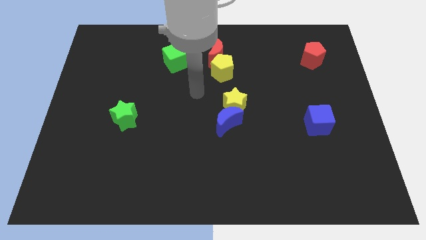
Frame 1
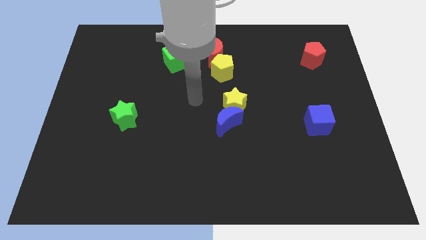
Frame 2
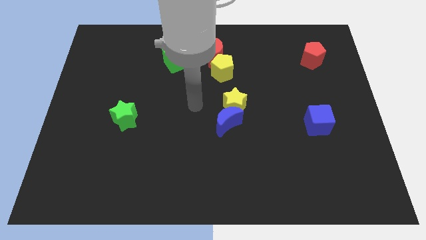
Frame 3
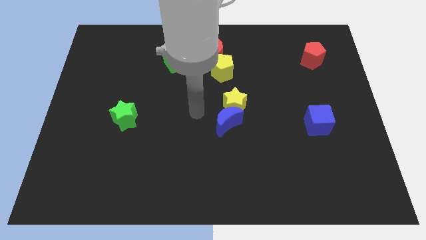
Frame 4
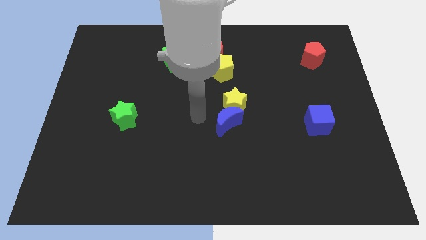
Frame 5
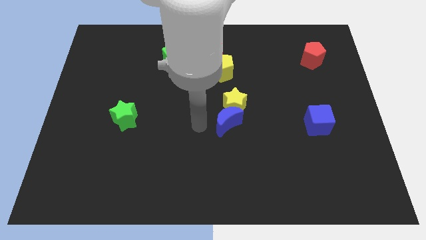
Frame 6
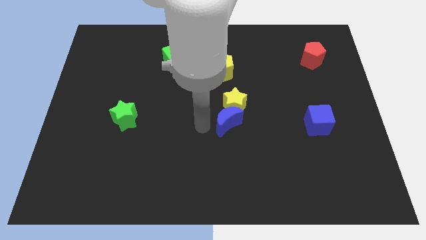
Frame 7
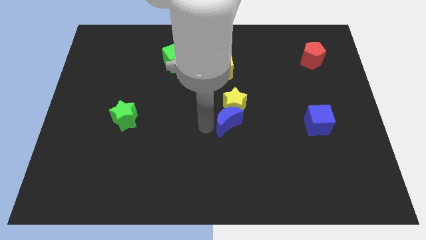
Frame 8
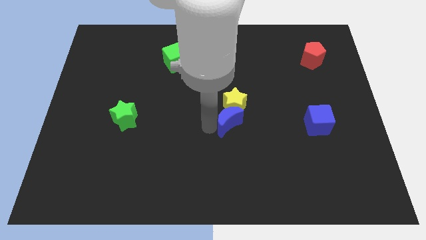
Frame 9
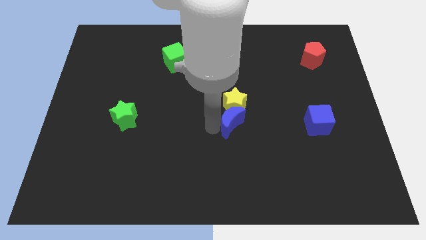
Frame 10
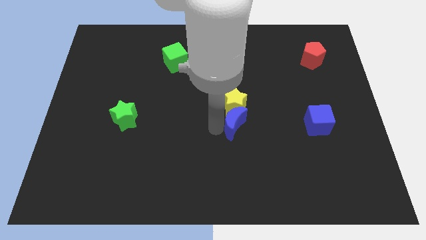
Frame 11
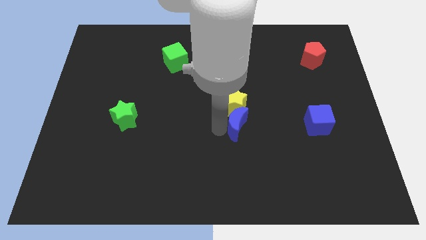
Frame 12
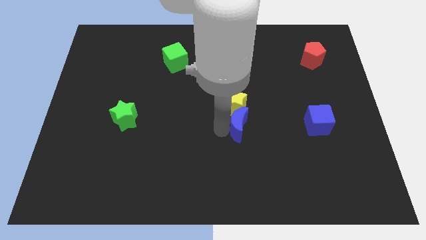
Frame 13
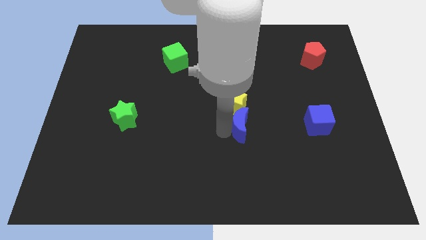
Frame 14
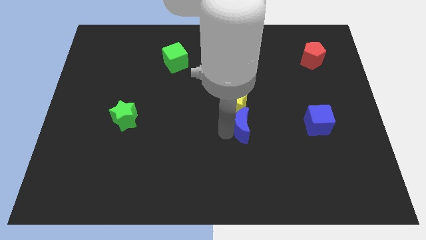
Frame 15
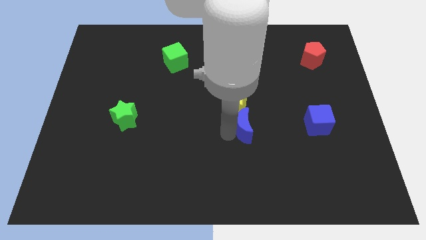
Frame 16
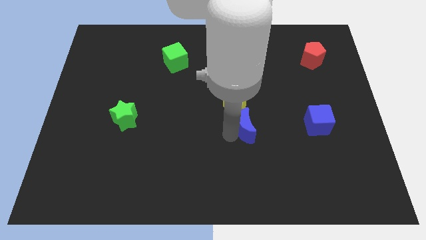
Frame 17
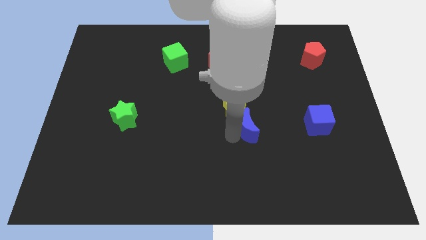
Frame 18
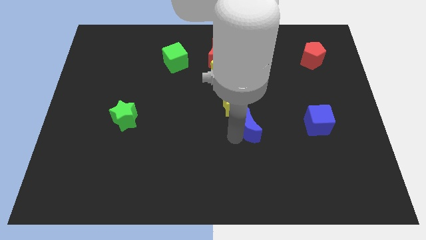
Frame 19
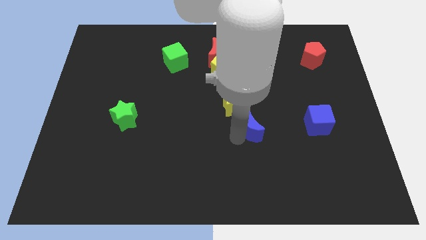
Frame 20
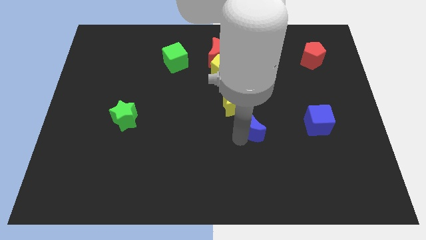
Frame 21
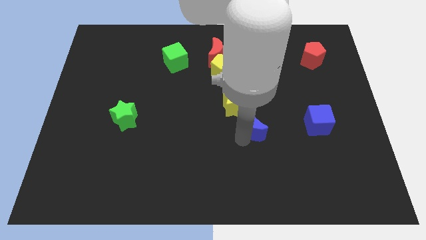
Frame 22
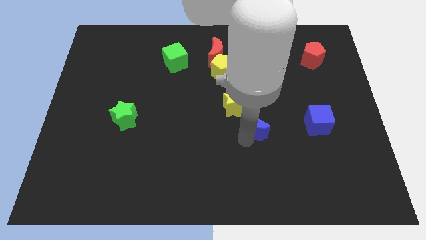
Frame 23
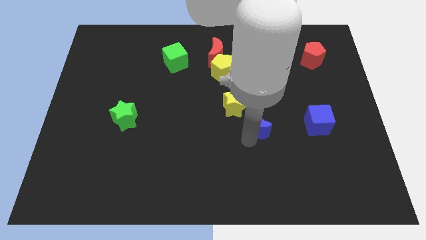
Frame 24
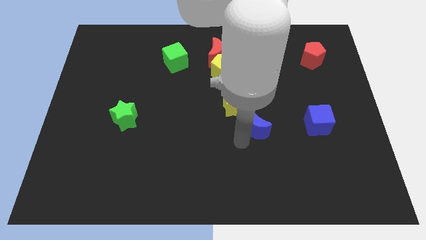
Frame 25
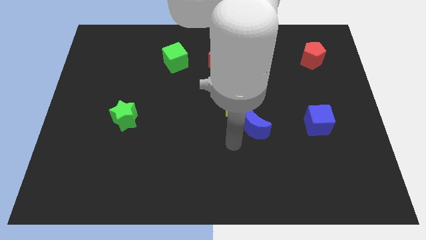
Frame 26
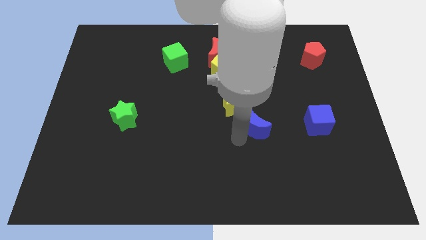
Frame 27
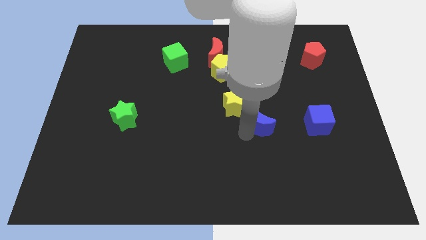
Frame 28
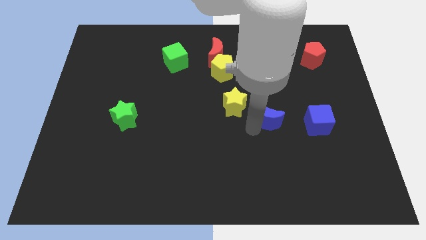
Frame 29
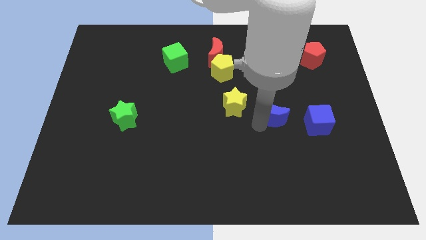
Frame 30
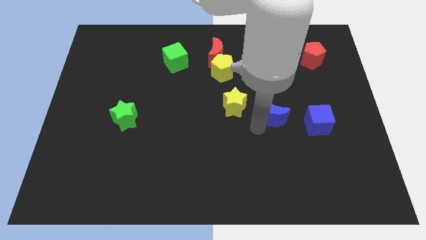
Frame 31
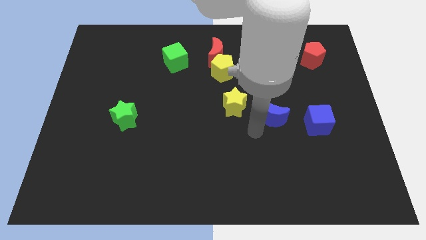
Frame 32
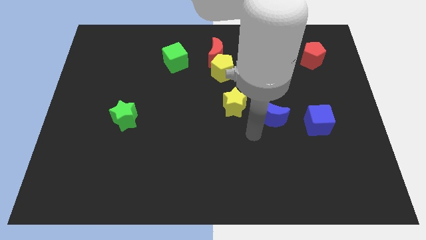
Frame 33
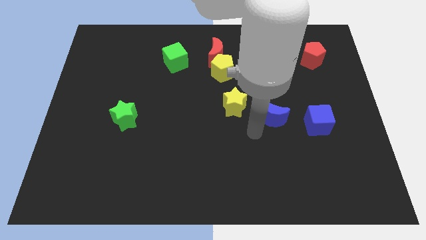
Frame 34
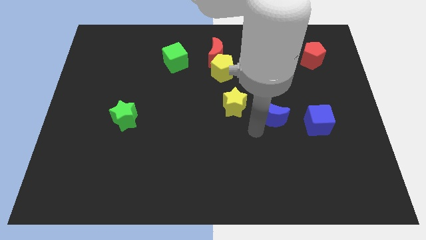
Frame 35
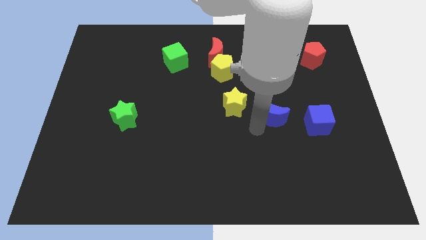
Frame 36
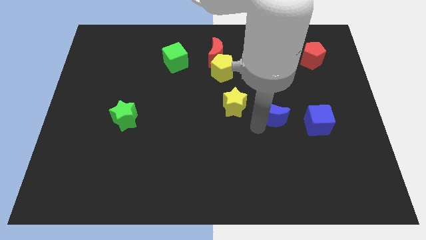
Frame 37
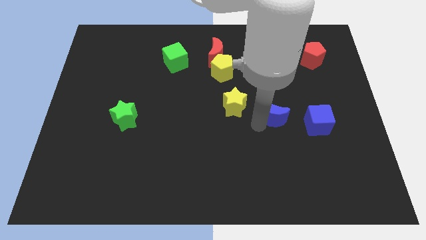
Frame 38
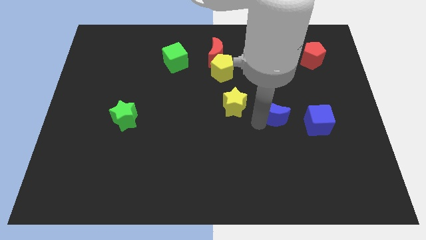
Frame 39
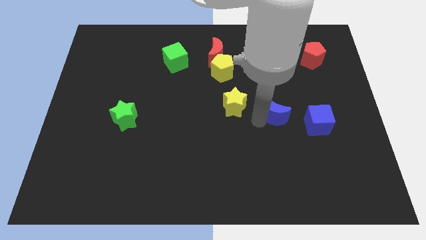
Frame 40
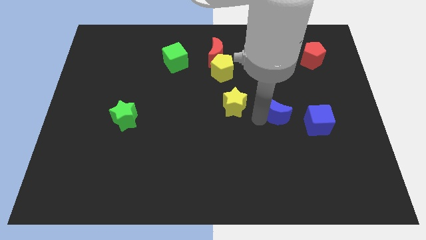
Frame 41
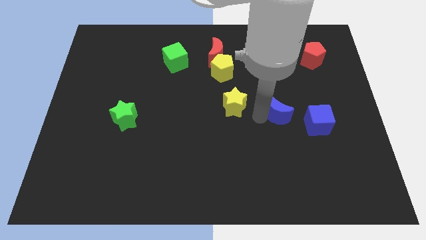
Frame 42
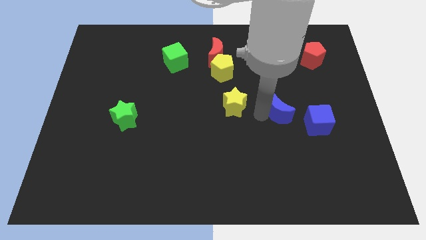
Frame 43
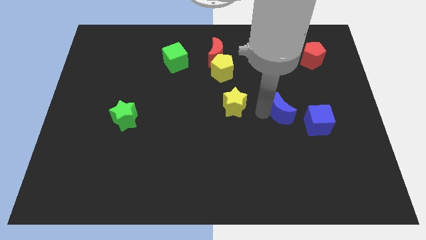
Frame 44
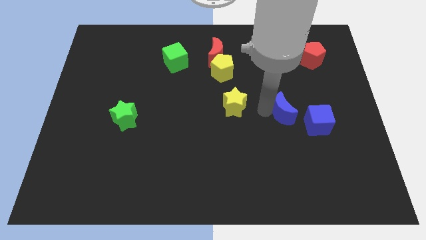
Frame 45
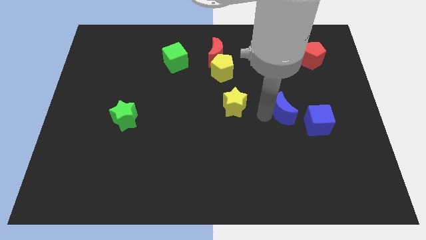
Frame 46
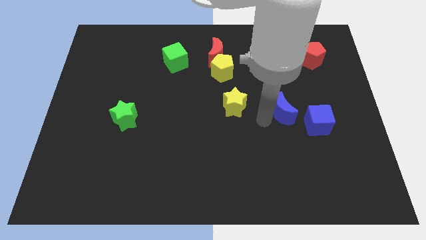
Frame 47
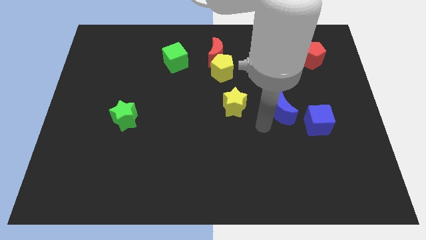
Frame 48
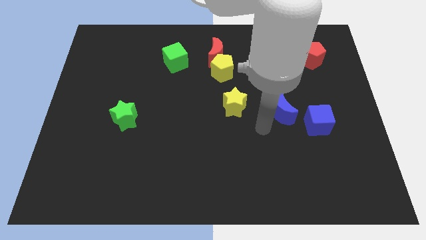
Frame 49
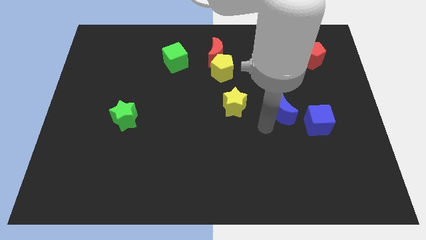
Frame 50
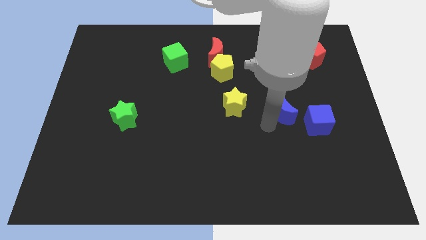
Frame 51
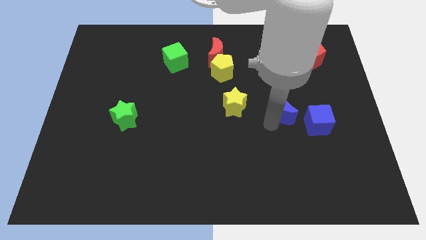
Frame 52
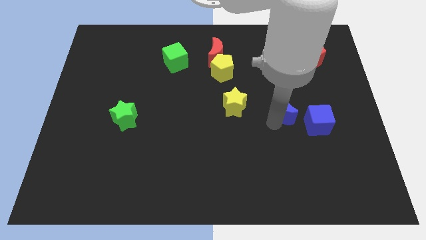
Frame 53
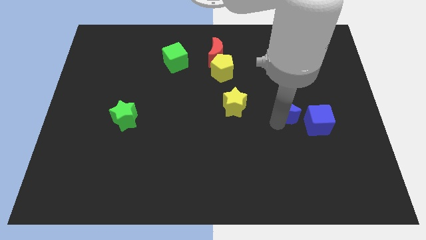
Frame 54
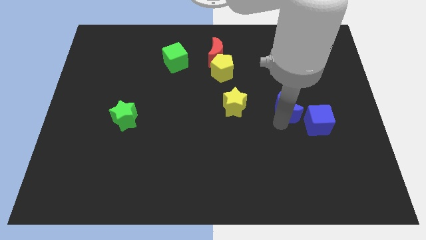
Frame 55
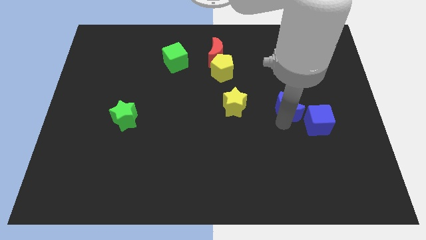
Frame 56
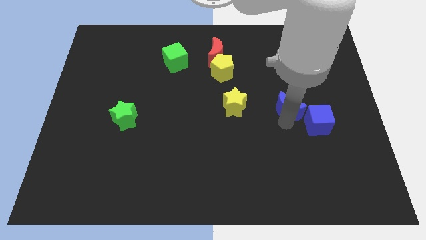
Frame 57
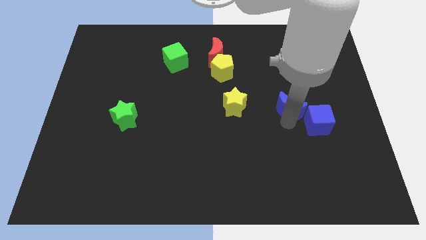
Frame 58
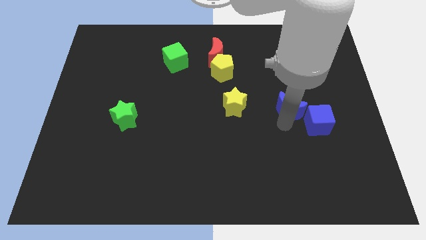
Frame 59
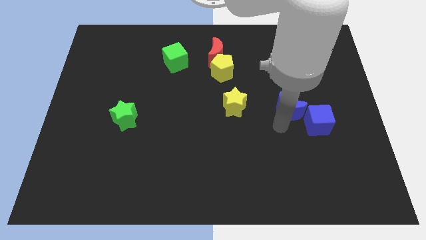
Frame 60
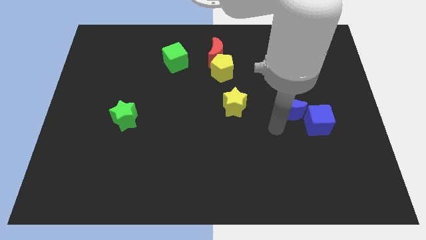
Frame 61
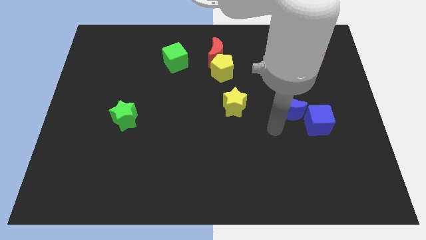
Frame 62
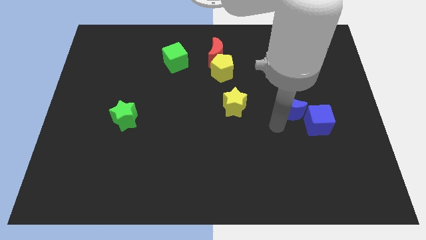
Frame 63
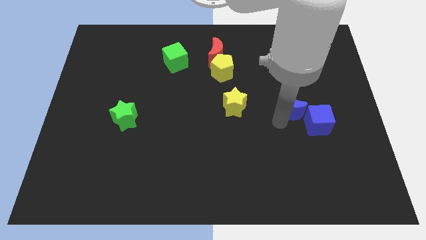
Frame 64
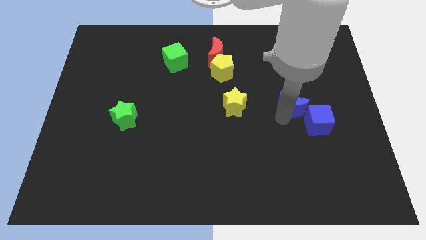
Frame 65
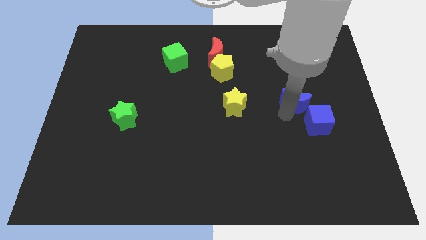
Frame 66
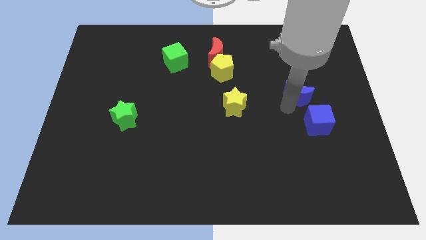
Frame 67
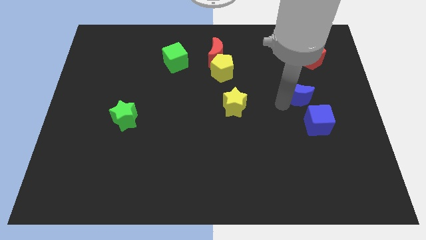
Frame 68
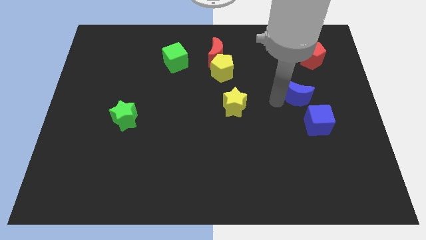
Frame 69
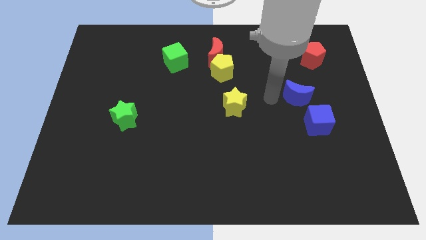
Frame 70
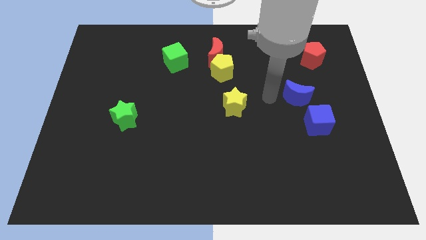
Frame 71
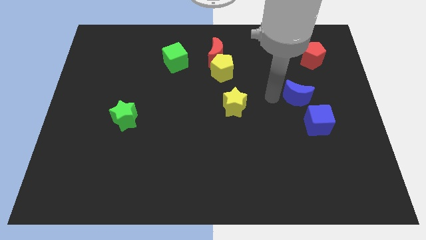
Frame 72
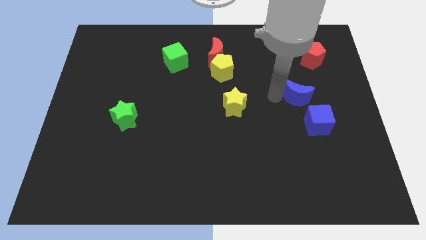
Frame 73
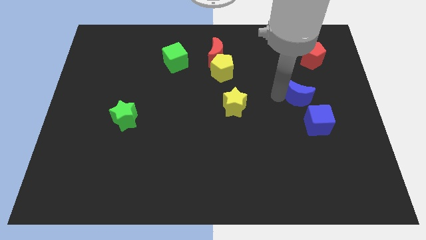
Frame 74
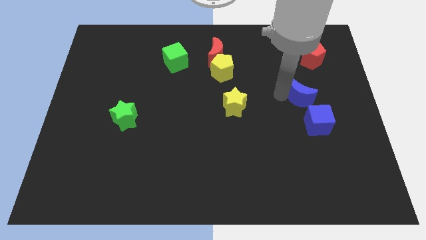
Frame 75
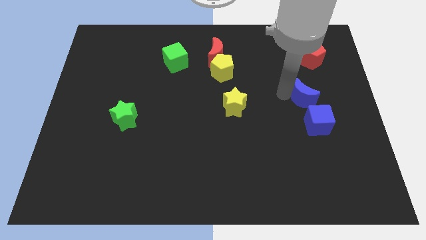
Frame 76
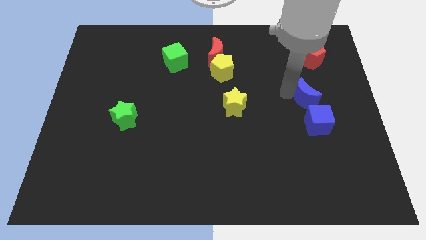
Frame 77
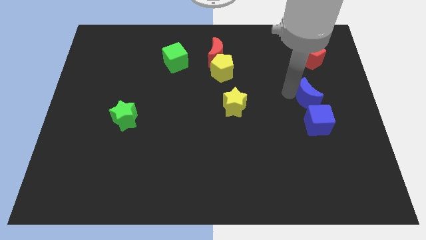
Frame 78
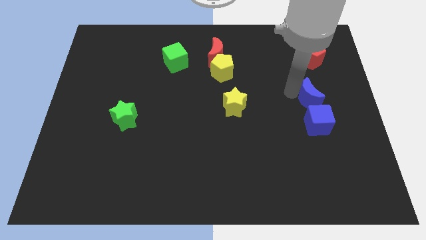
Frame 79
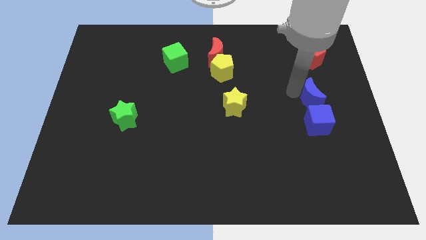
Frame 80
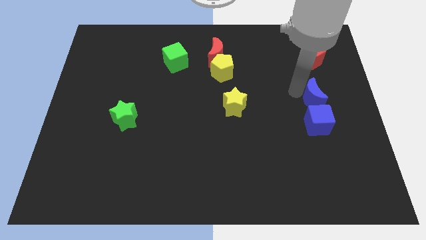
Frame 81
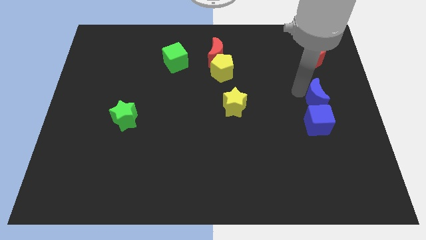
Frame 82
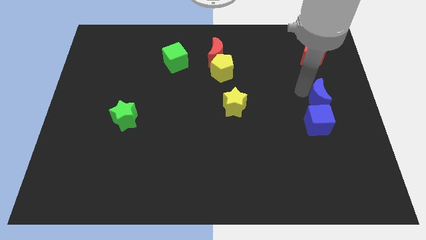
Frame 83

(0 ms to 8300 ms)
put the blue moon to the center right
